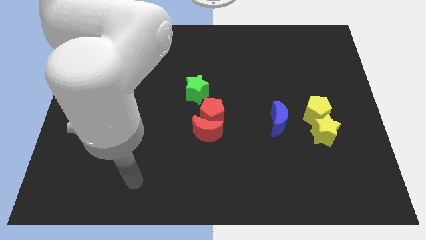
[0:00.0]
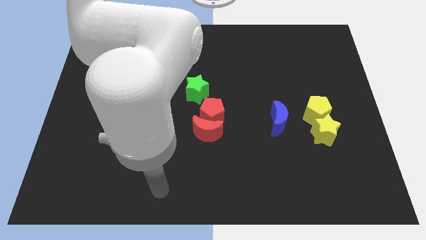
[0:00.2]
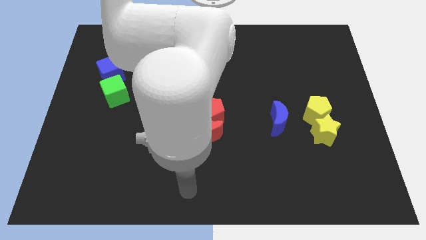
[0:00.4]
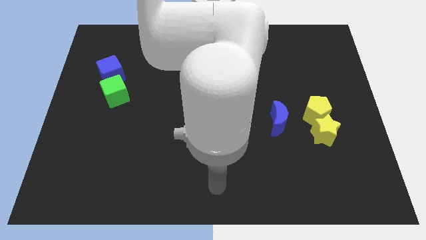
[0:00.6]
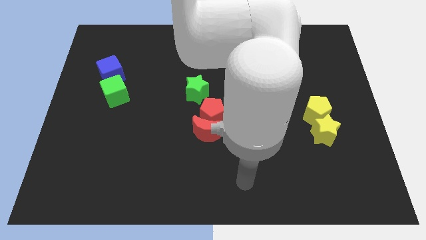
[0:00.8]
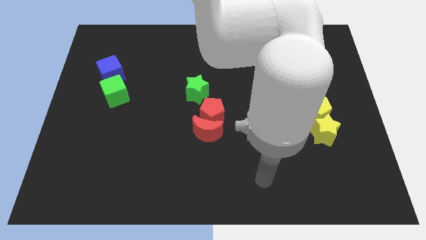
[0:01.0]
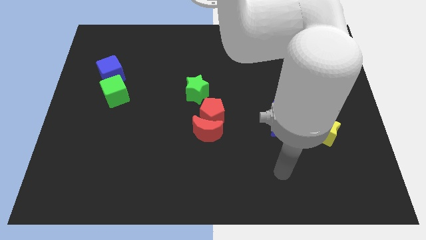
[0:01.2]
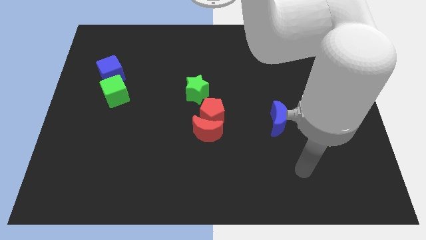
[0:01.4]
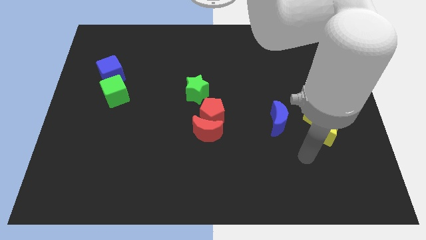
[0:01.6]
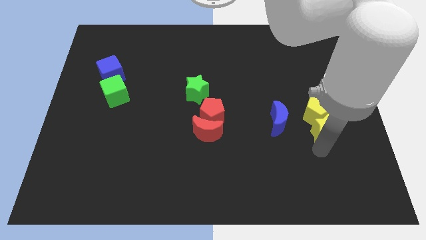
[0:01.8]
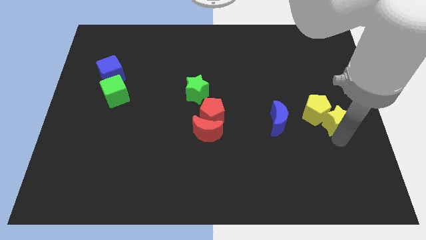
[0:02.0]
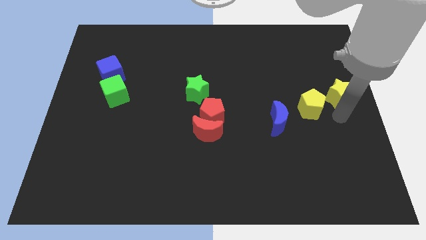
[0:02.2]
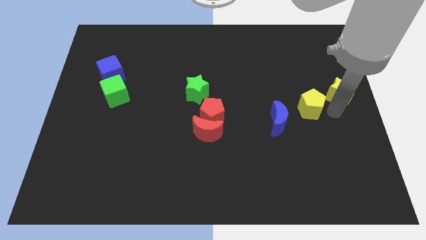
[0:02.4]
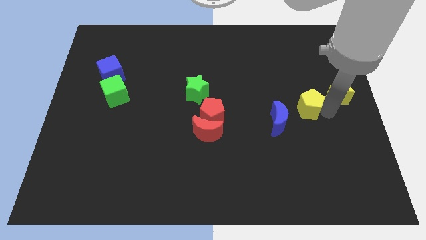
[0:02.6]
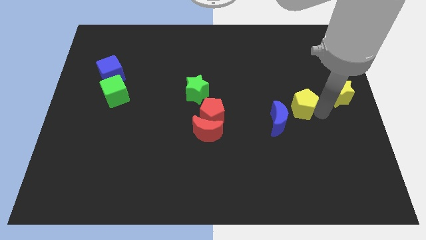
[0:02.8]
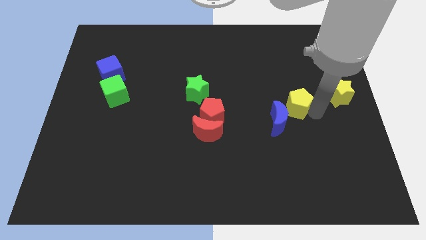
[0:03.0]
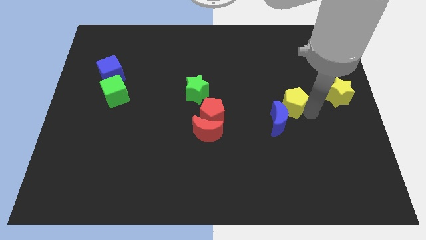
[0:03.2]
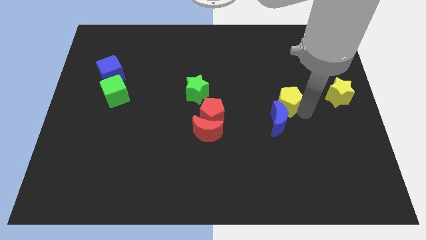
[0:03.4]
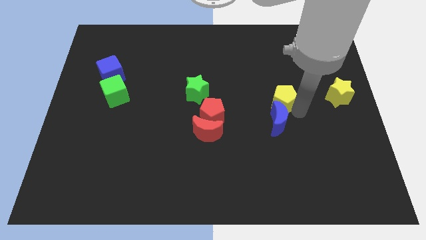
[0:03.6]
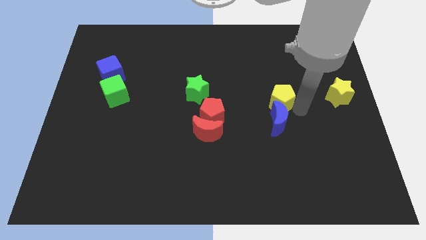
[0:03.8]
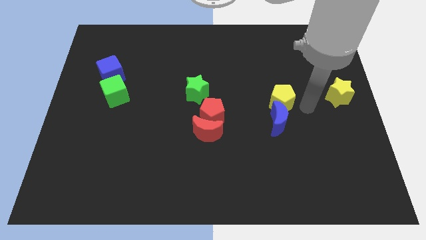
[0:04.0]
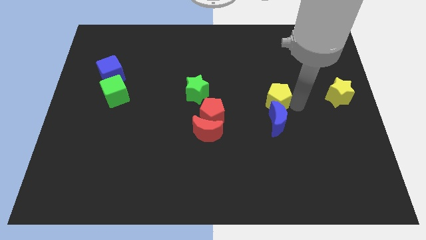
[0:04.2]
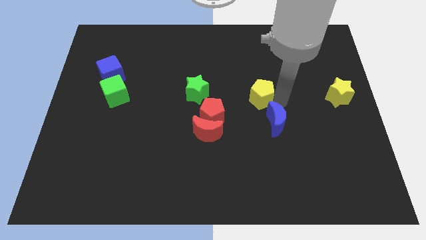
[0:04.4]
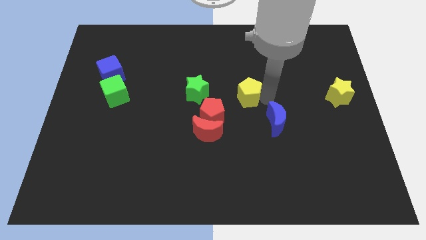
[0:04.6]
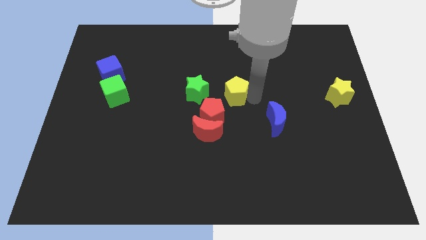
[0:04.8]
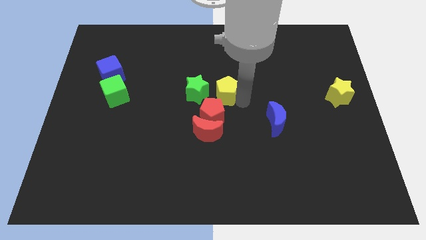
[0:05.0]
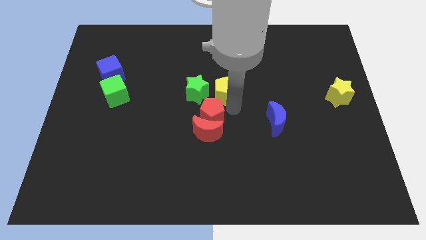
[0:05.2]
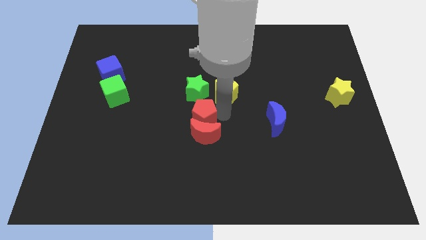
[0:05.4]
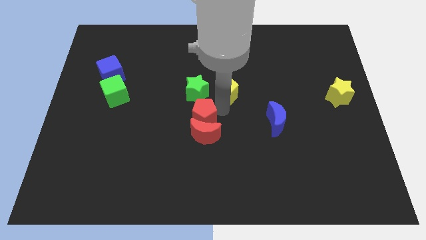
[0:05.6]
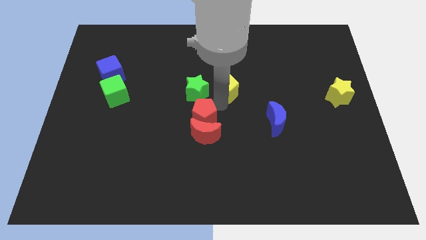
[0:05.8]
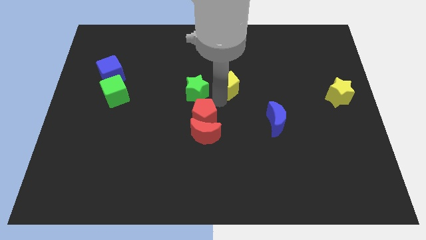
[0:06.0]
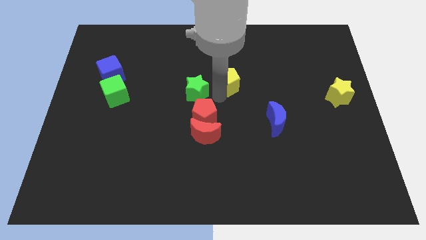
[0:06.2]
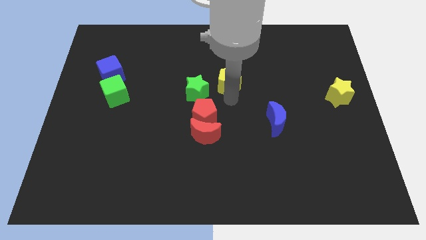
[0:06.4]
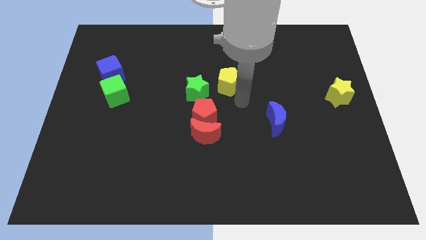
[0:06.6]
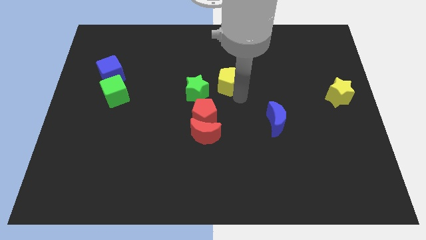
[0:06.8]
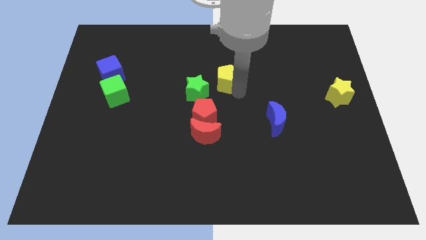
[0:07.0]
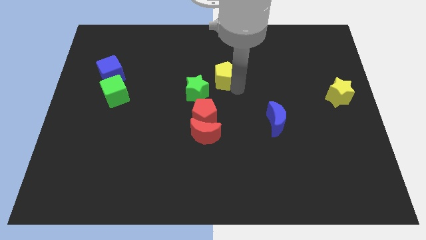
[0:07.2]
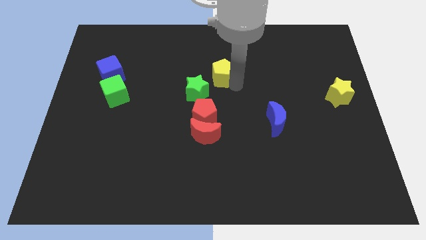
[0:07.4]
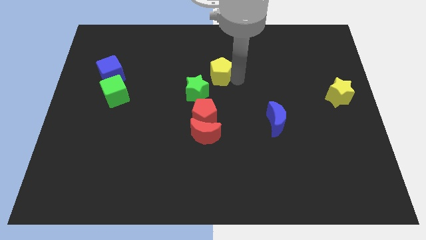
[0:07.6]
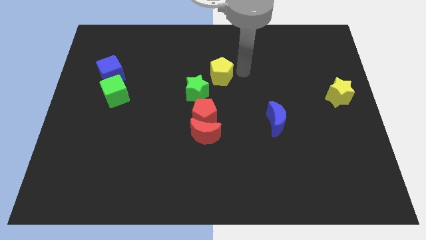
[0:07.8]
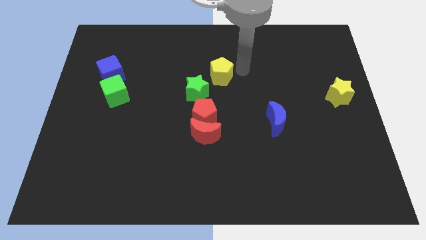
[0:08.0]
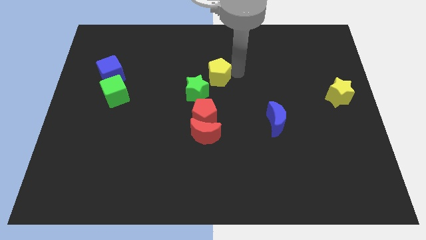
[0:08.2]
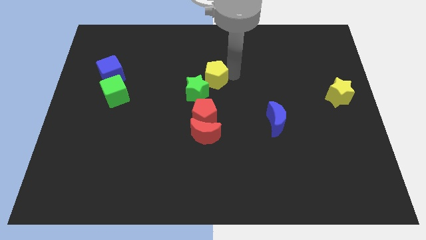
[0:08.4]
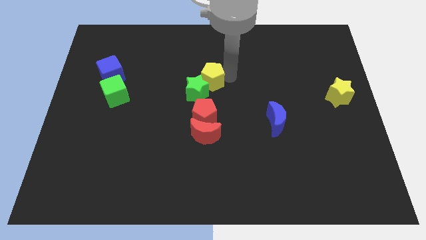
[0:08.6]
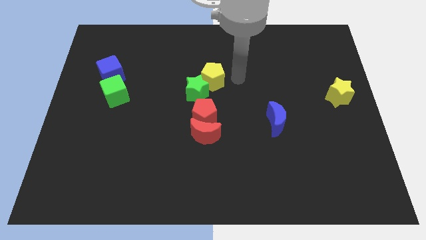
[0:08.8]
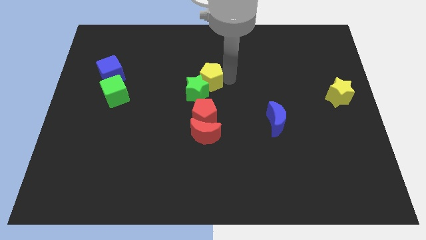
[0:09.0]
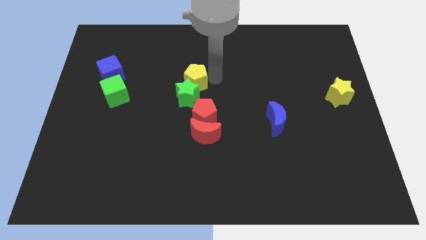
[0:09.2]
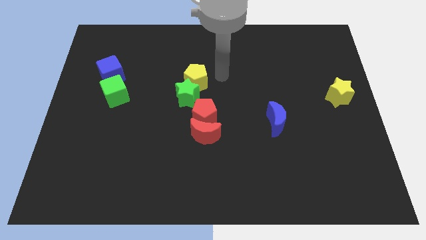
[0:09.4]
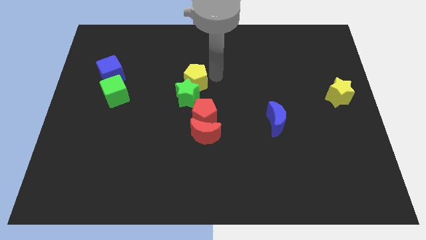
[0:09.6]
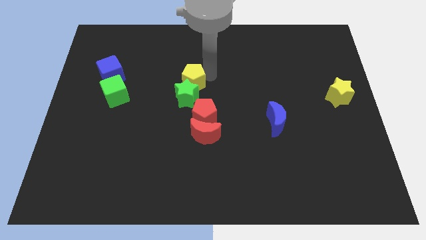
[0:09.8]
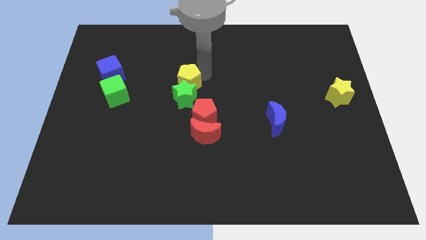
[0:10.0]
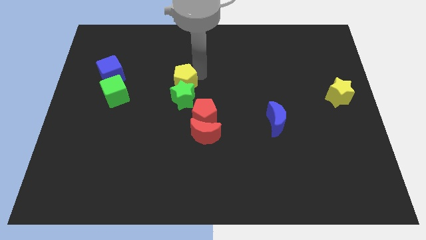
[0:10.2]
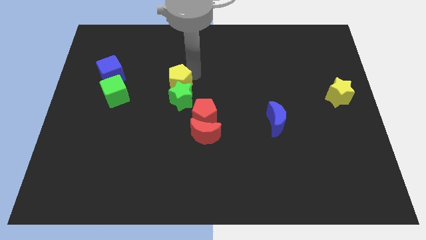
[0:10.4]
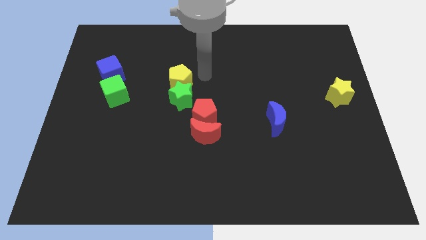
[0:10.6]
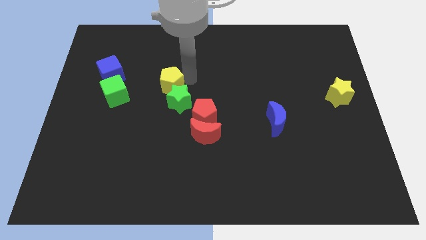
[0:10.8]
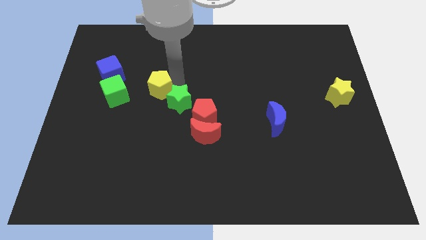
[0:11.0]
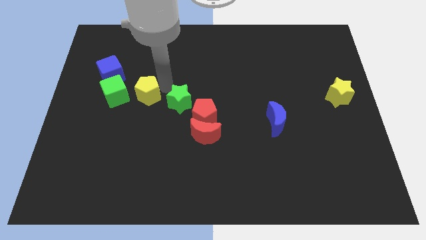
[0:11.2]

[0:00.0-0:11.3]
slide the yellow pentagon to the bottom right of the blue cube

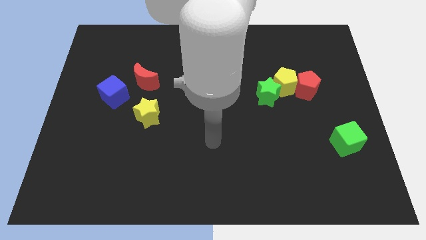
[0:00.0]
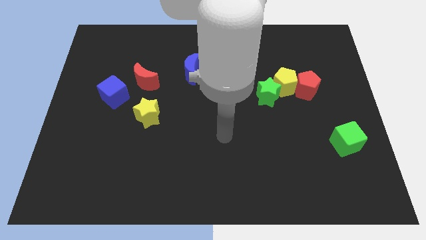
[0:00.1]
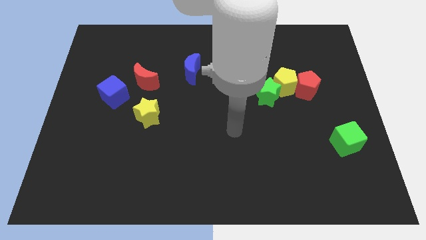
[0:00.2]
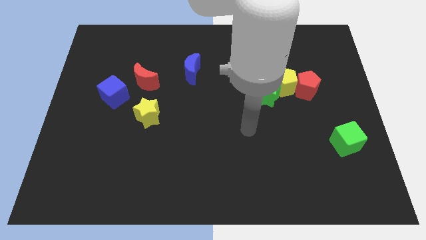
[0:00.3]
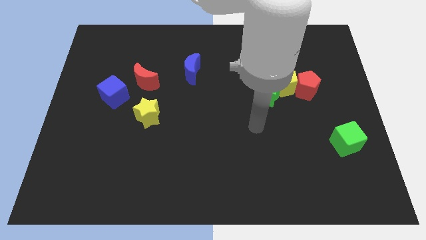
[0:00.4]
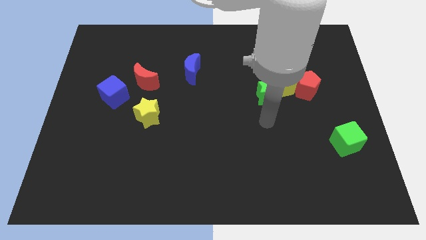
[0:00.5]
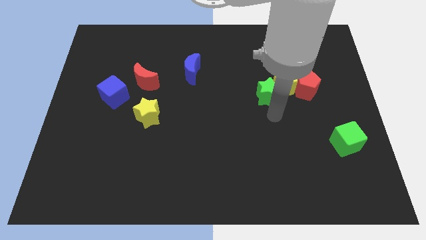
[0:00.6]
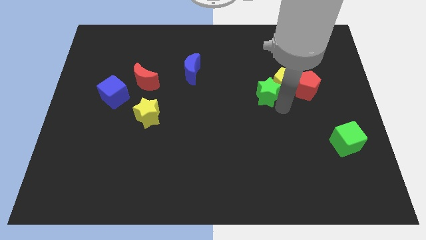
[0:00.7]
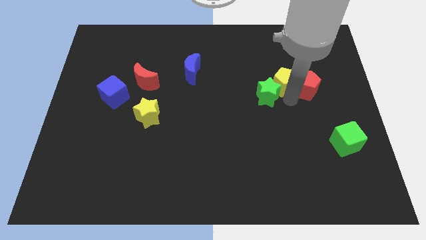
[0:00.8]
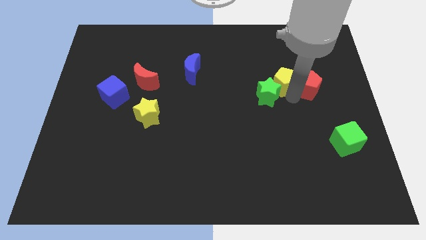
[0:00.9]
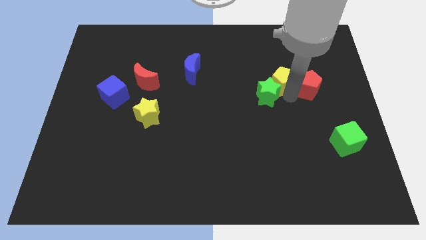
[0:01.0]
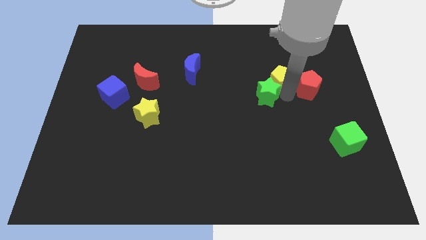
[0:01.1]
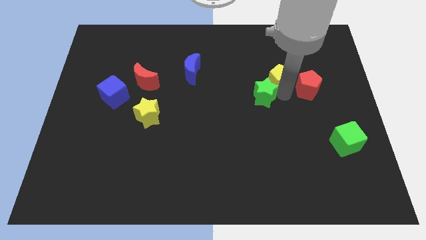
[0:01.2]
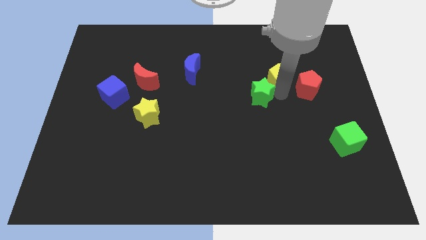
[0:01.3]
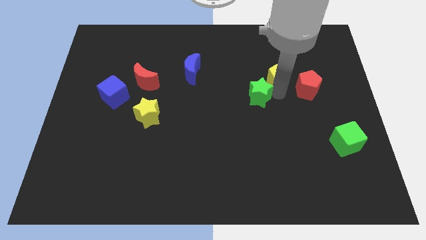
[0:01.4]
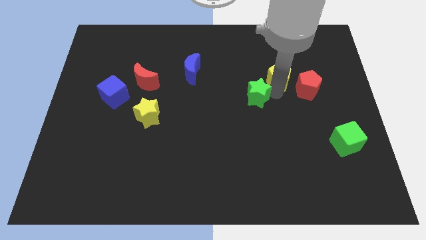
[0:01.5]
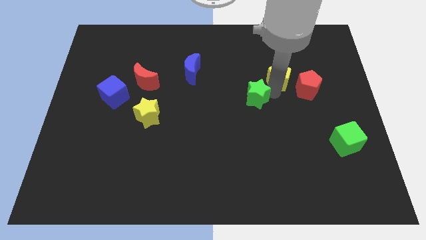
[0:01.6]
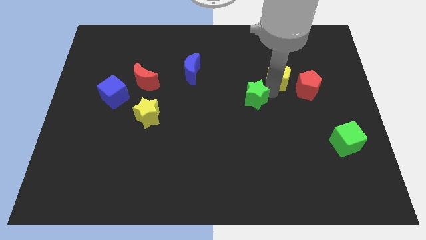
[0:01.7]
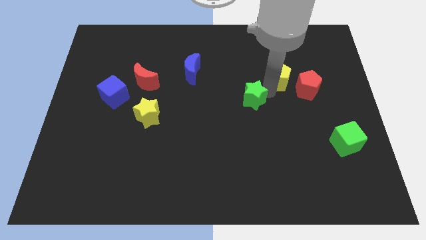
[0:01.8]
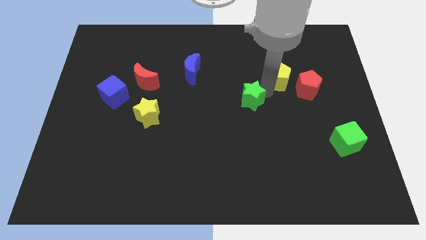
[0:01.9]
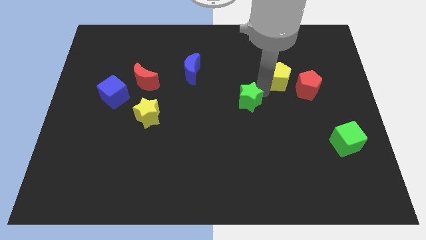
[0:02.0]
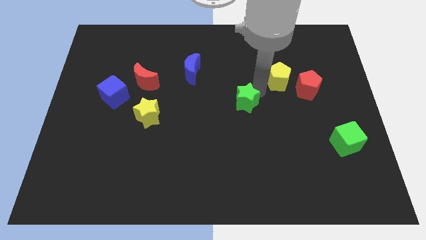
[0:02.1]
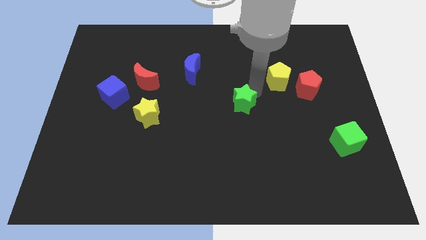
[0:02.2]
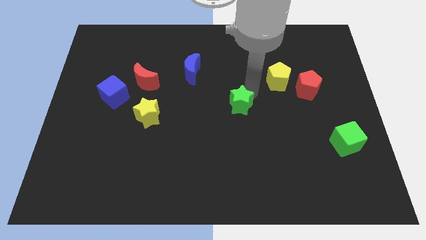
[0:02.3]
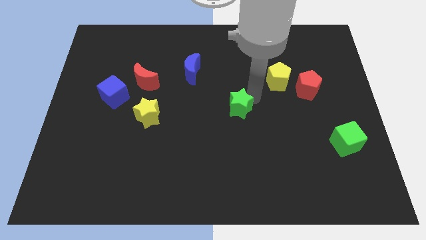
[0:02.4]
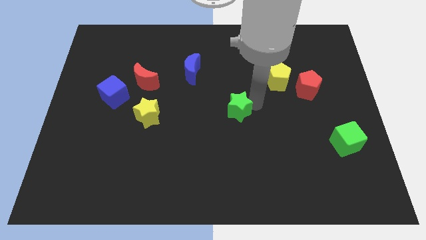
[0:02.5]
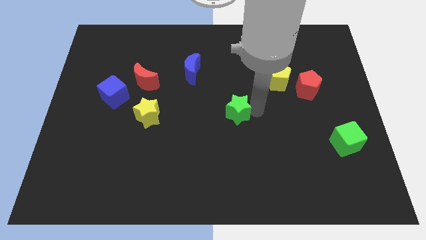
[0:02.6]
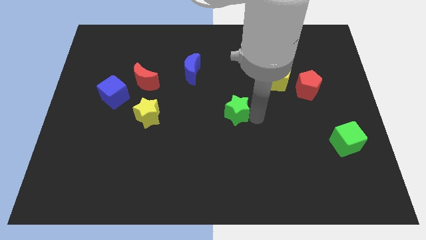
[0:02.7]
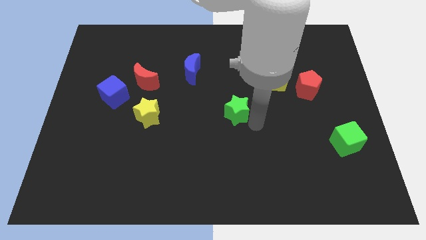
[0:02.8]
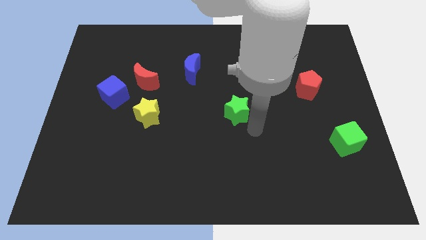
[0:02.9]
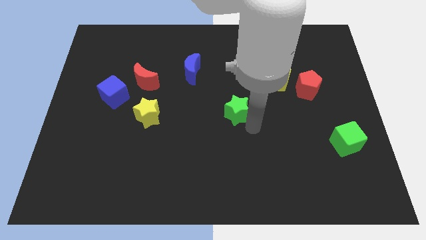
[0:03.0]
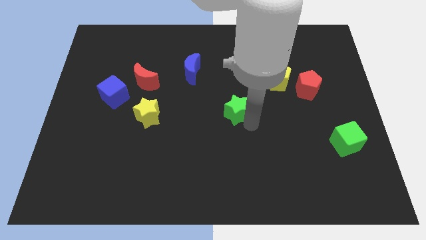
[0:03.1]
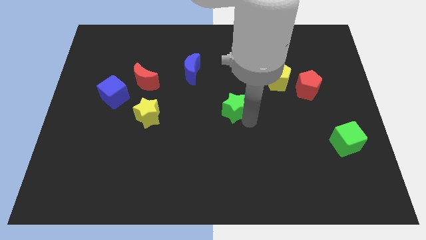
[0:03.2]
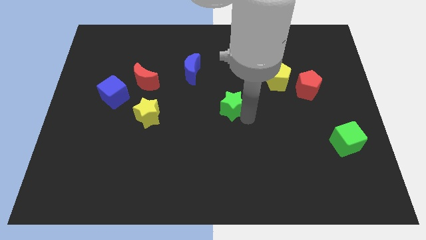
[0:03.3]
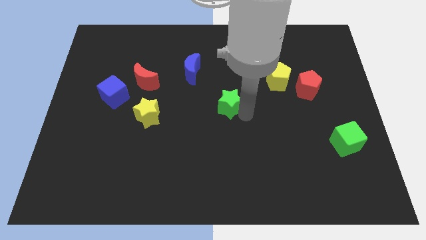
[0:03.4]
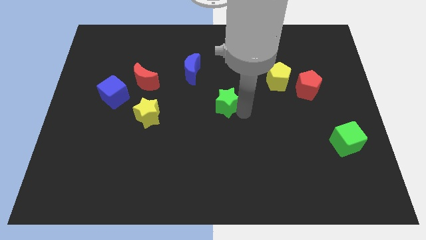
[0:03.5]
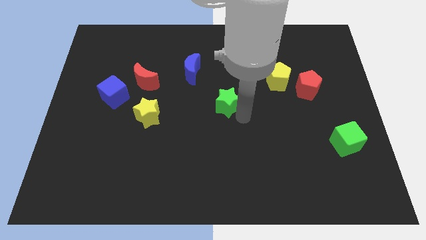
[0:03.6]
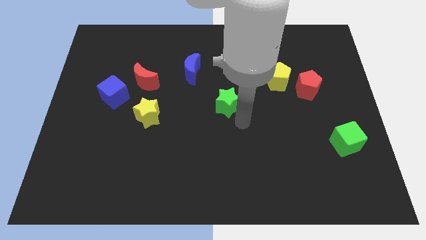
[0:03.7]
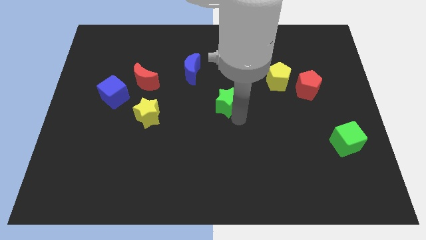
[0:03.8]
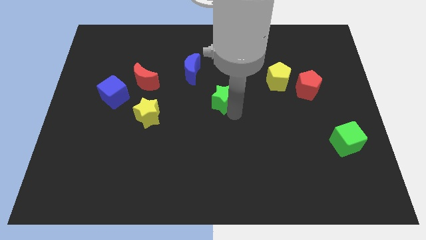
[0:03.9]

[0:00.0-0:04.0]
move the green star to the bottom right side of the blue moon
